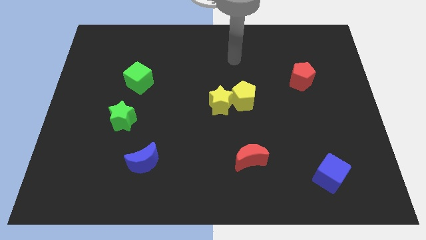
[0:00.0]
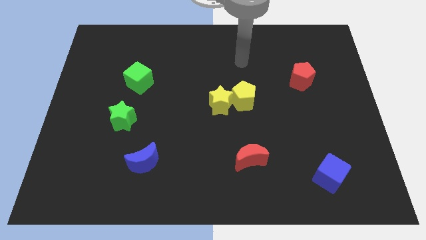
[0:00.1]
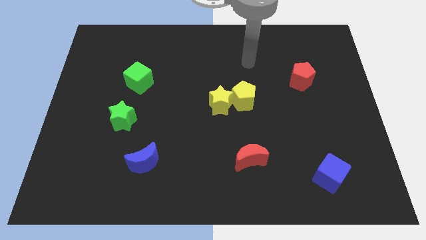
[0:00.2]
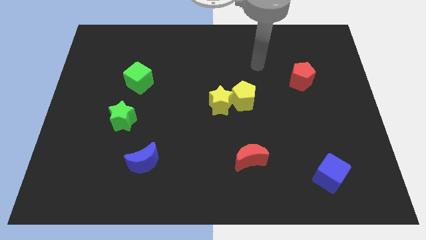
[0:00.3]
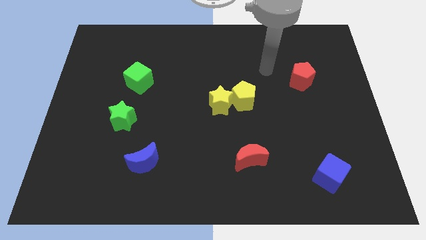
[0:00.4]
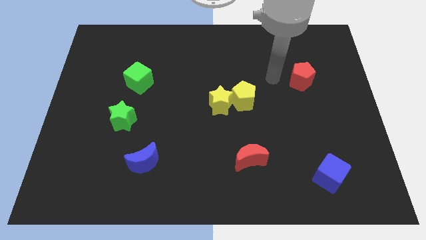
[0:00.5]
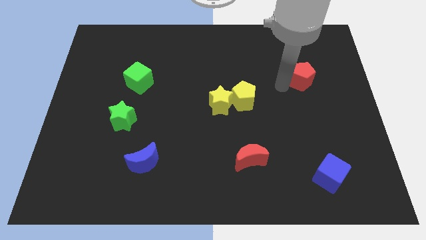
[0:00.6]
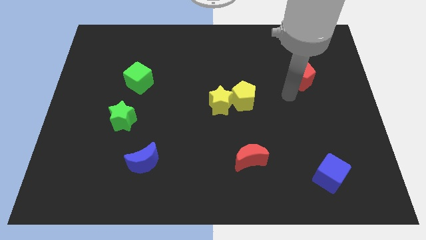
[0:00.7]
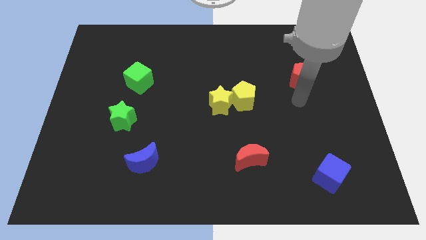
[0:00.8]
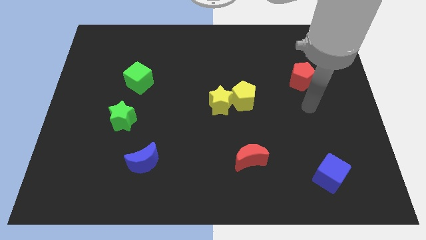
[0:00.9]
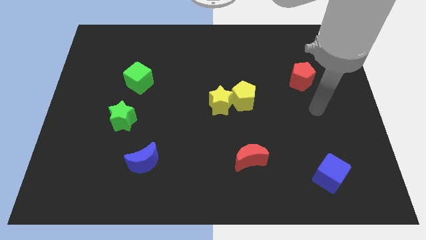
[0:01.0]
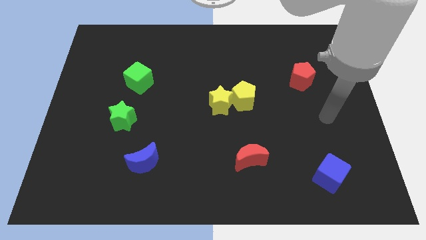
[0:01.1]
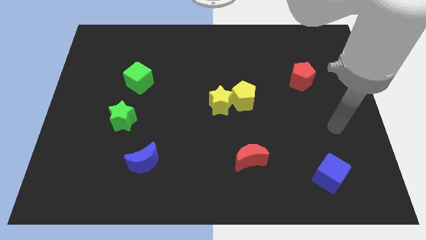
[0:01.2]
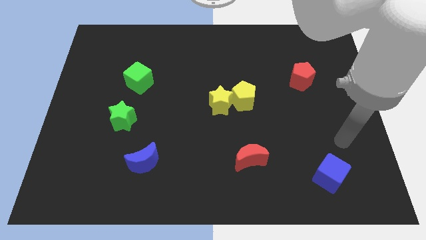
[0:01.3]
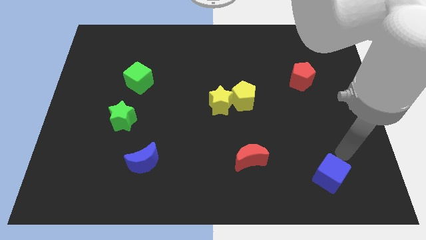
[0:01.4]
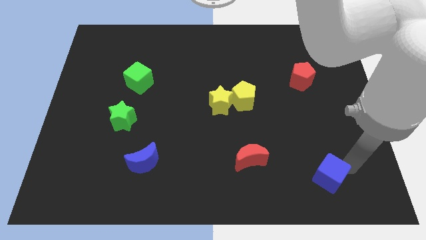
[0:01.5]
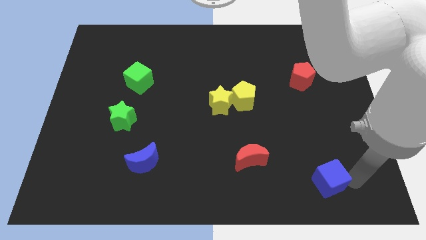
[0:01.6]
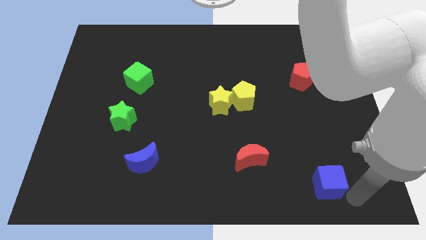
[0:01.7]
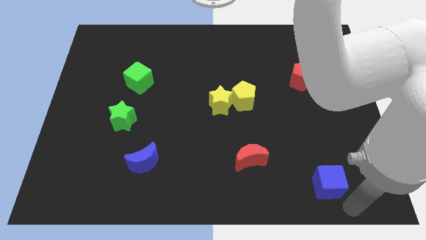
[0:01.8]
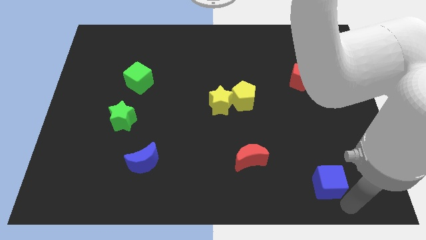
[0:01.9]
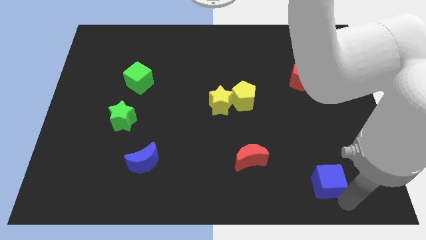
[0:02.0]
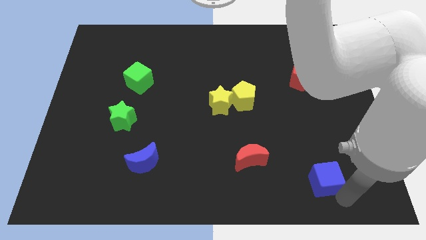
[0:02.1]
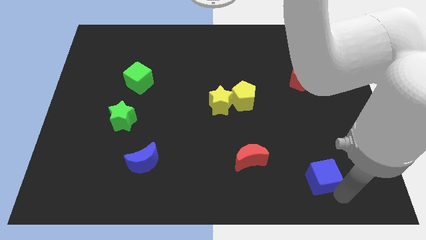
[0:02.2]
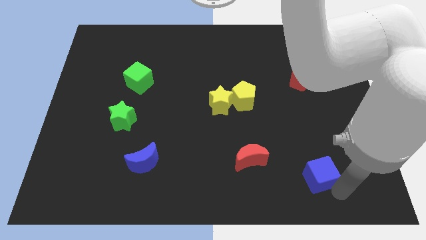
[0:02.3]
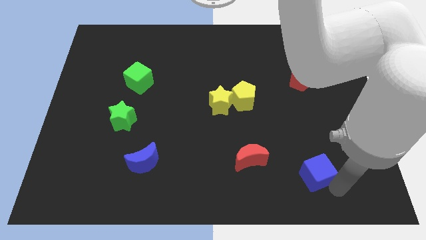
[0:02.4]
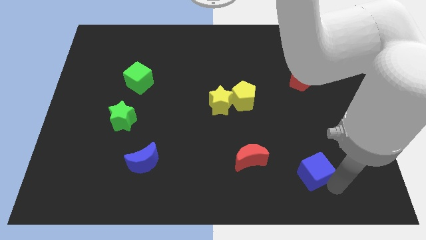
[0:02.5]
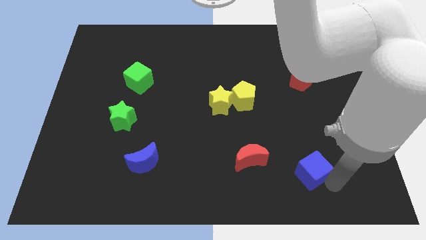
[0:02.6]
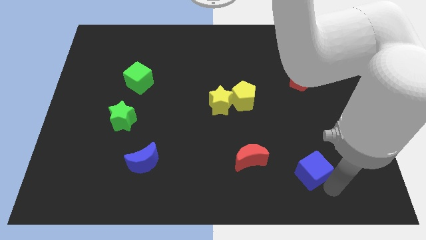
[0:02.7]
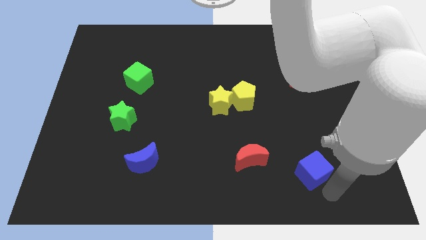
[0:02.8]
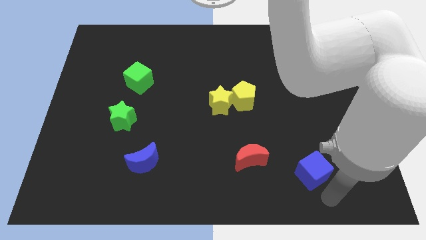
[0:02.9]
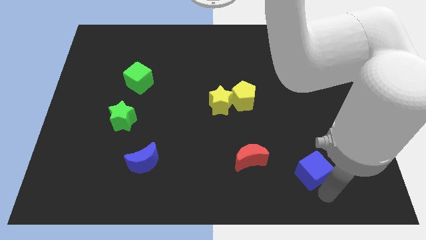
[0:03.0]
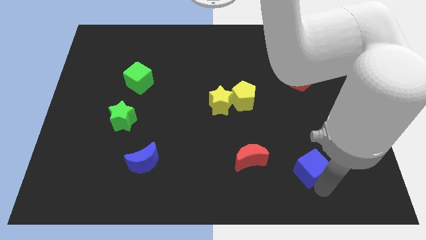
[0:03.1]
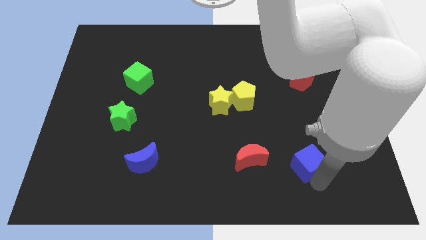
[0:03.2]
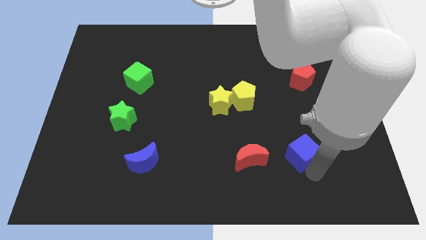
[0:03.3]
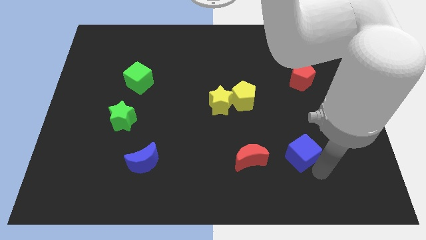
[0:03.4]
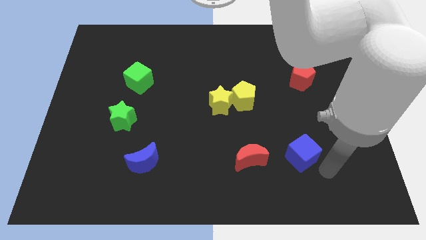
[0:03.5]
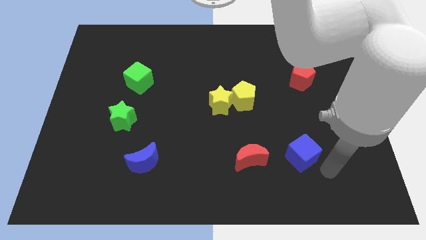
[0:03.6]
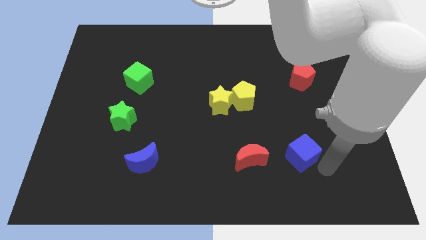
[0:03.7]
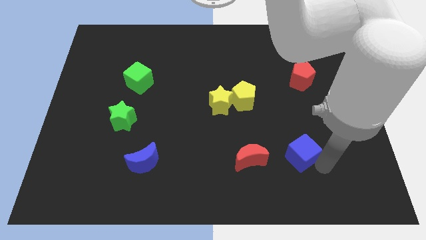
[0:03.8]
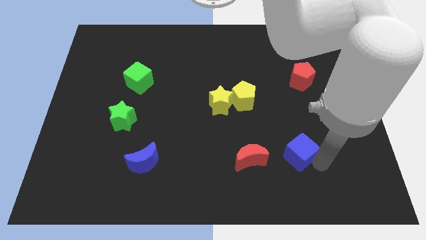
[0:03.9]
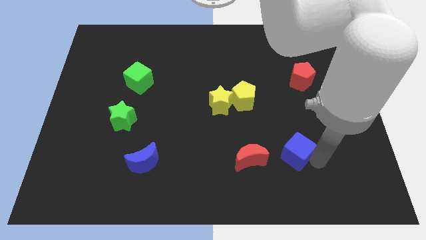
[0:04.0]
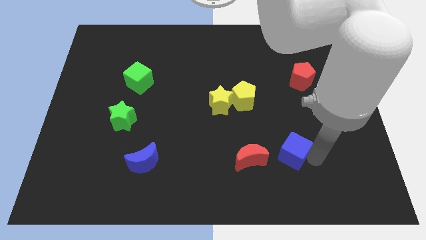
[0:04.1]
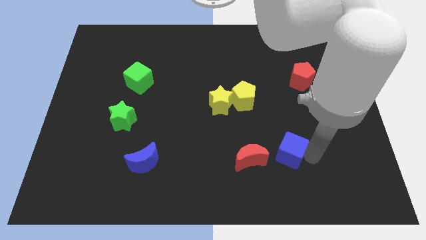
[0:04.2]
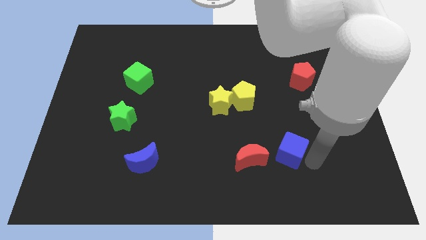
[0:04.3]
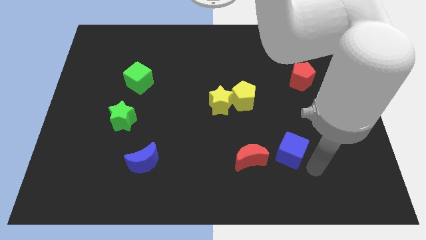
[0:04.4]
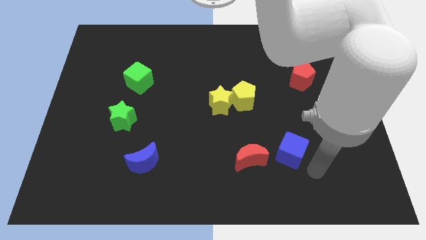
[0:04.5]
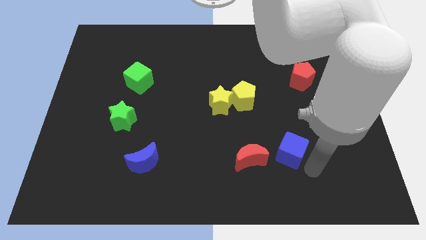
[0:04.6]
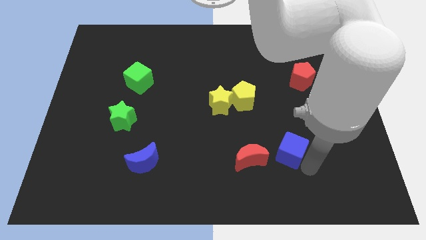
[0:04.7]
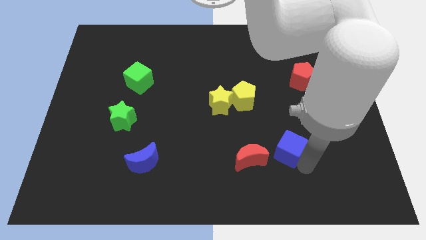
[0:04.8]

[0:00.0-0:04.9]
move the blue cube to the top right side of the red moon

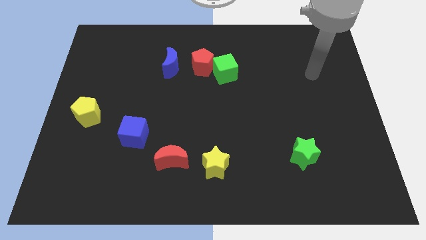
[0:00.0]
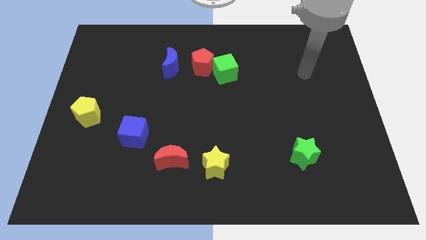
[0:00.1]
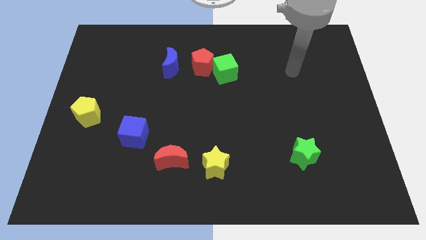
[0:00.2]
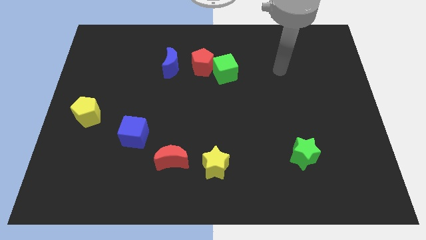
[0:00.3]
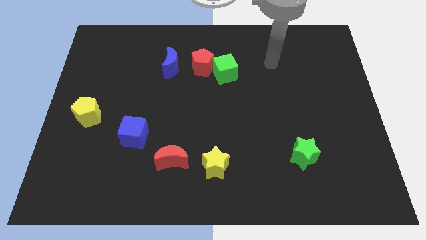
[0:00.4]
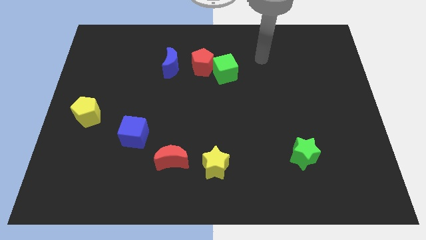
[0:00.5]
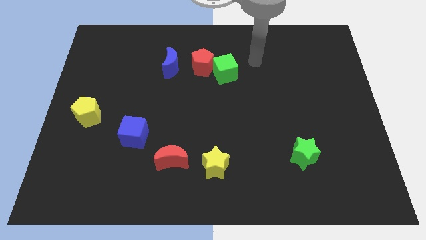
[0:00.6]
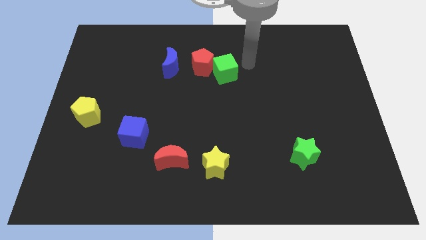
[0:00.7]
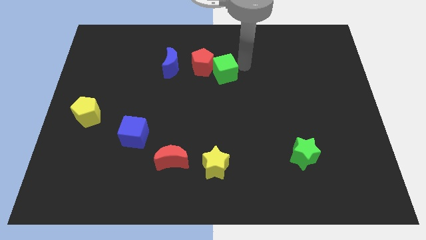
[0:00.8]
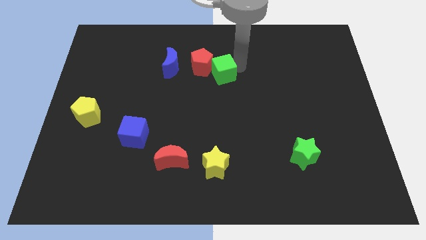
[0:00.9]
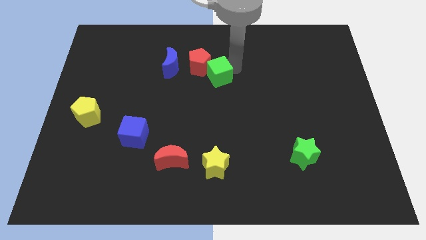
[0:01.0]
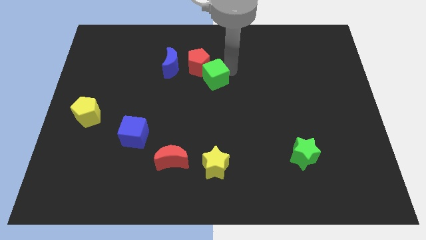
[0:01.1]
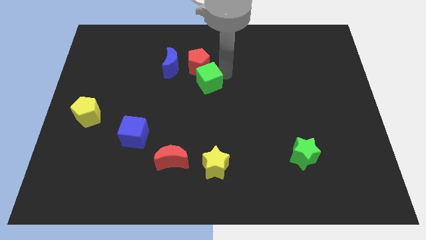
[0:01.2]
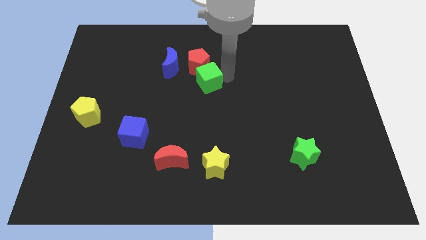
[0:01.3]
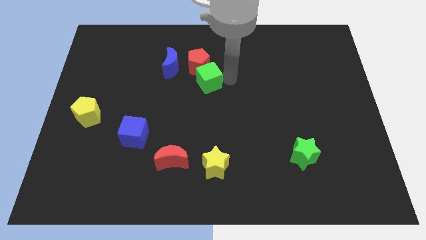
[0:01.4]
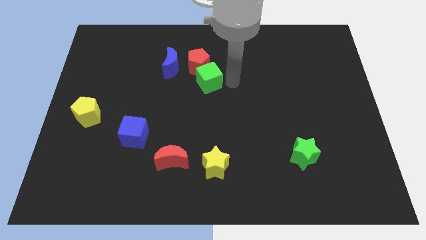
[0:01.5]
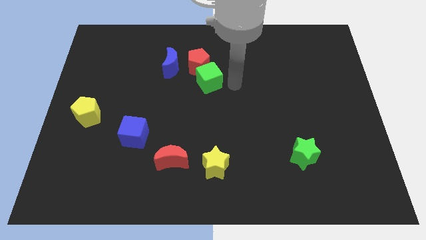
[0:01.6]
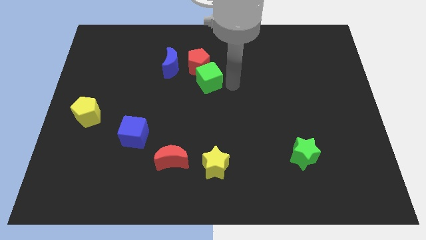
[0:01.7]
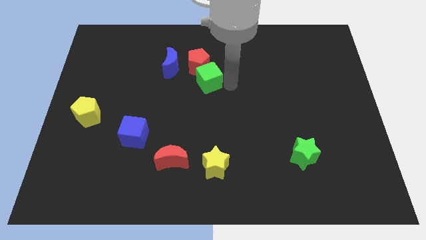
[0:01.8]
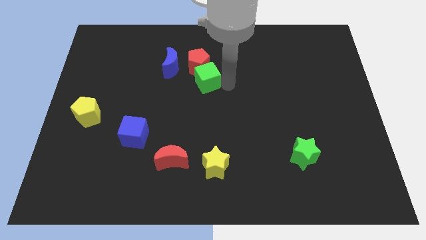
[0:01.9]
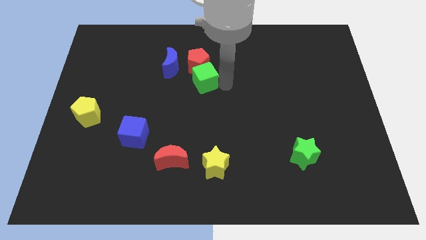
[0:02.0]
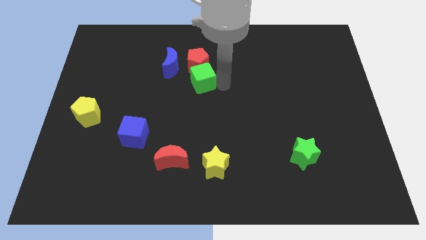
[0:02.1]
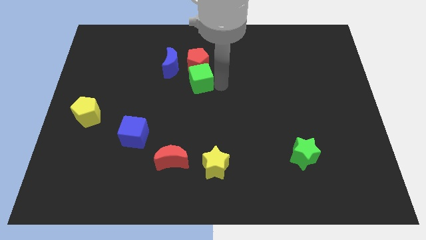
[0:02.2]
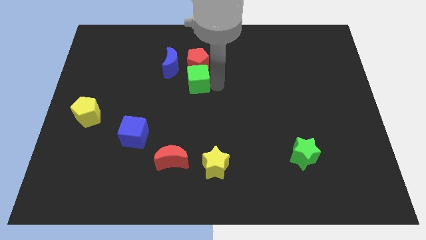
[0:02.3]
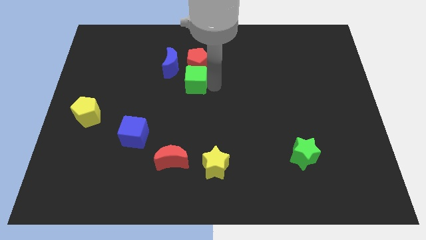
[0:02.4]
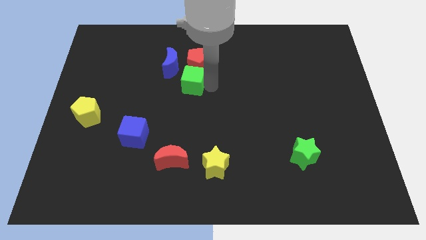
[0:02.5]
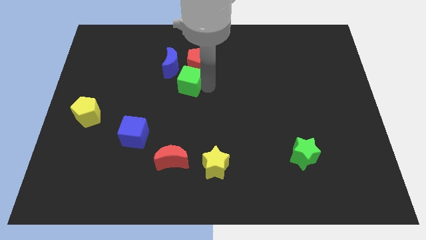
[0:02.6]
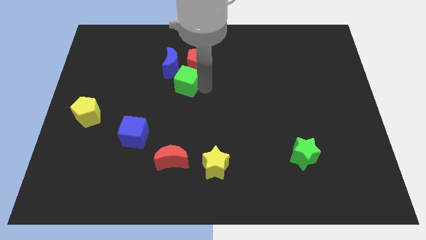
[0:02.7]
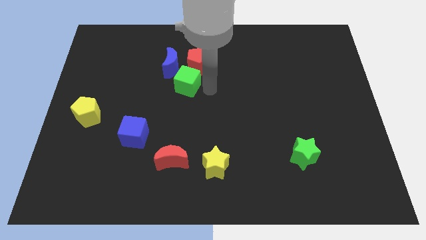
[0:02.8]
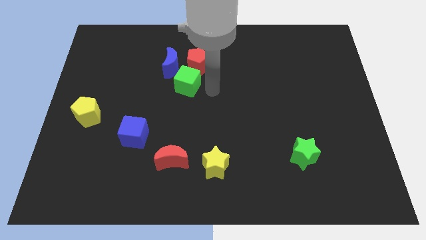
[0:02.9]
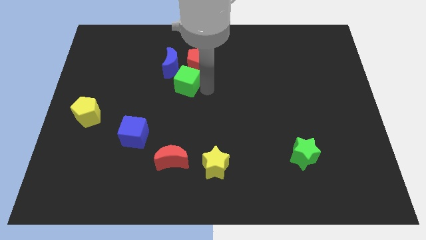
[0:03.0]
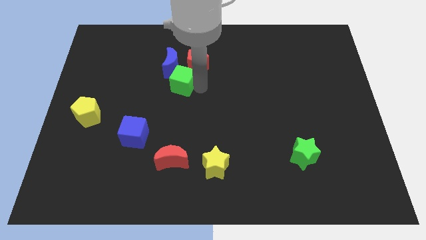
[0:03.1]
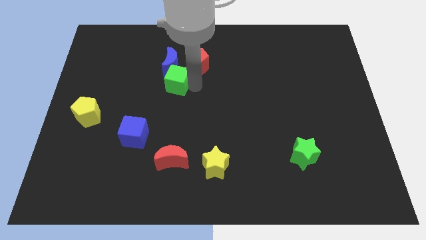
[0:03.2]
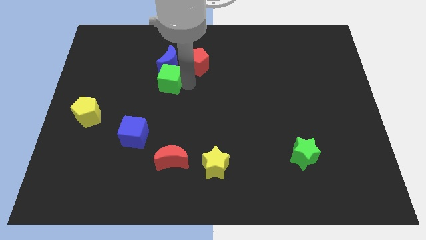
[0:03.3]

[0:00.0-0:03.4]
slide the green cube to the bottom left of the blue moon
